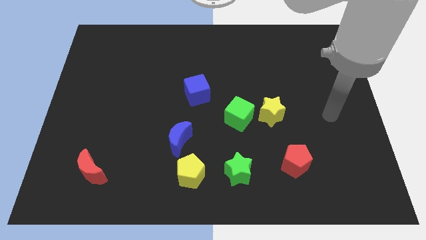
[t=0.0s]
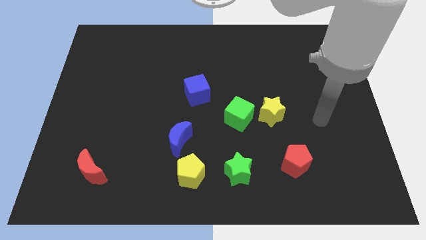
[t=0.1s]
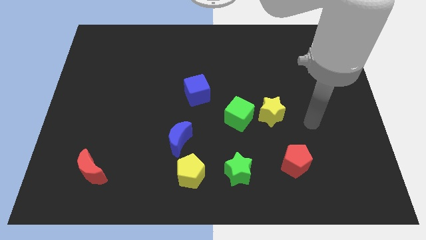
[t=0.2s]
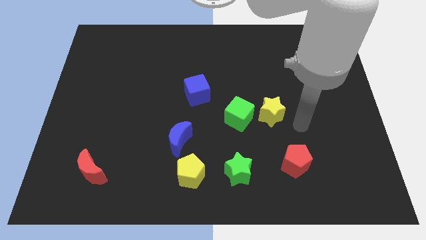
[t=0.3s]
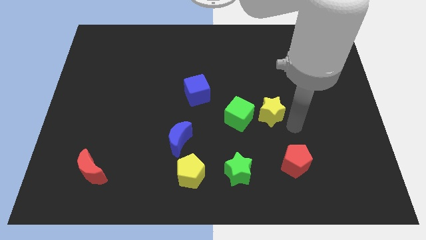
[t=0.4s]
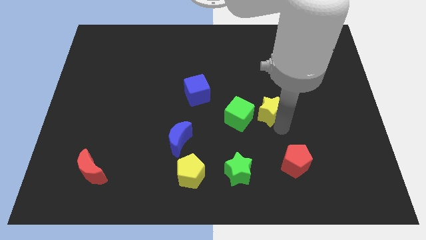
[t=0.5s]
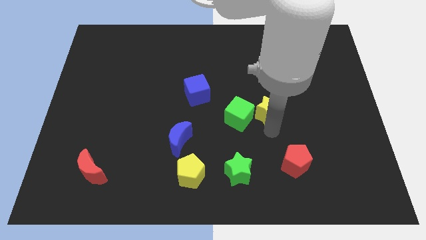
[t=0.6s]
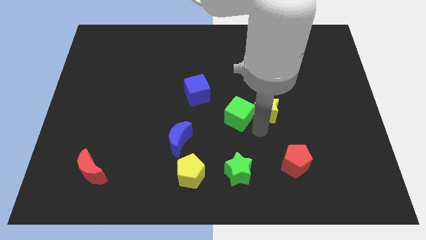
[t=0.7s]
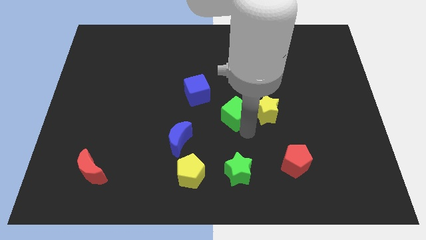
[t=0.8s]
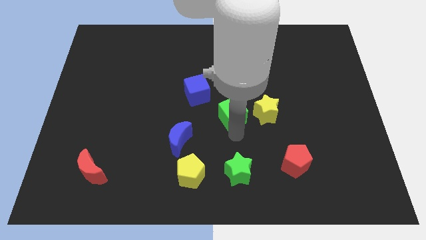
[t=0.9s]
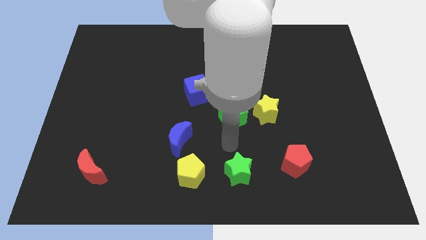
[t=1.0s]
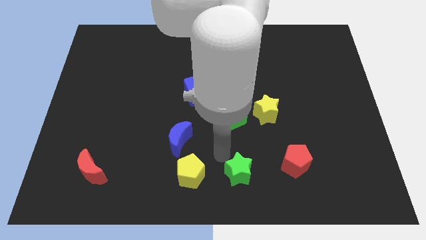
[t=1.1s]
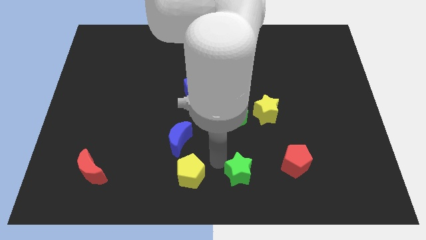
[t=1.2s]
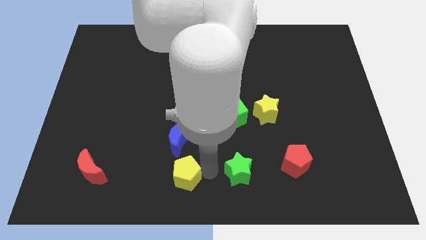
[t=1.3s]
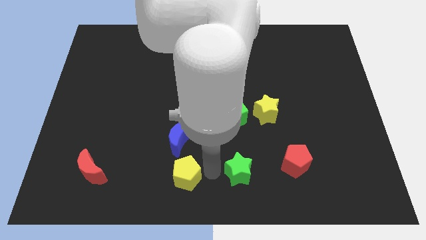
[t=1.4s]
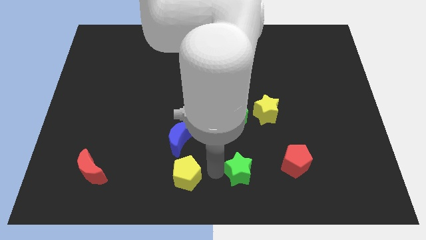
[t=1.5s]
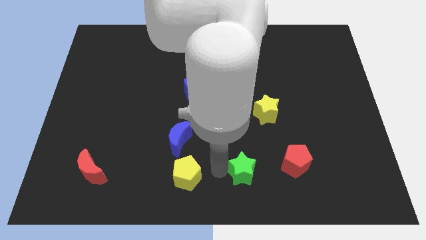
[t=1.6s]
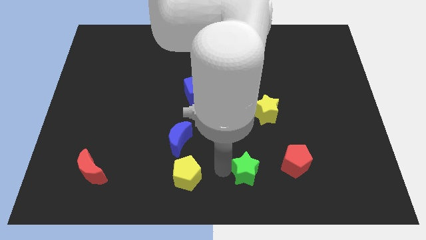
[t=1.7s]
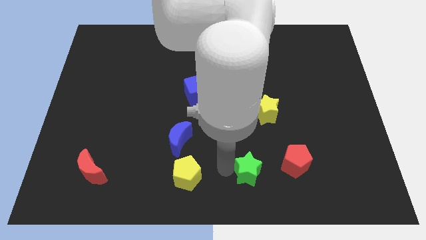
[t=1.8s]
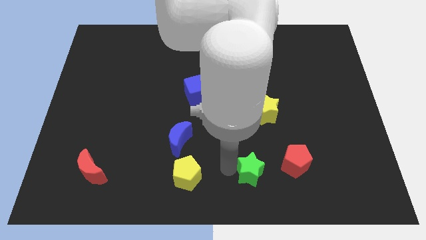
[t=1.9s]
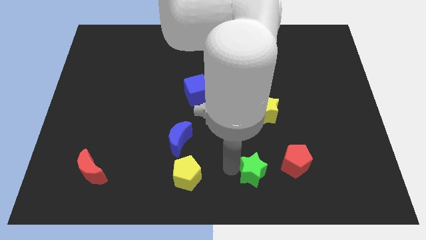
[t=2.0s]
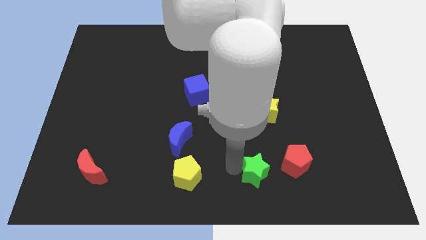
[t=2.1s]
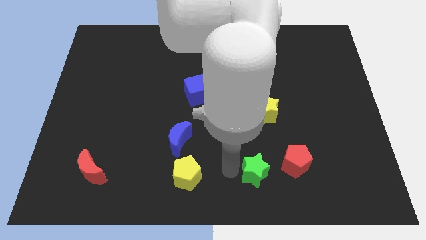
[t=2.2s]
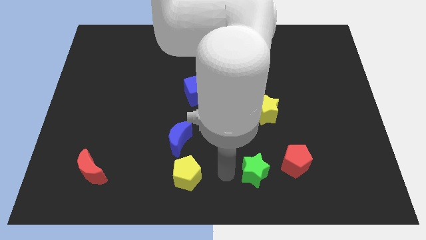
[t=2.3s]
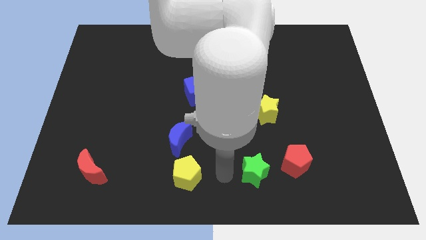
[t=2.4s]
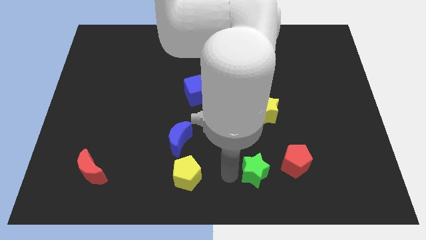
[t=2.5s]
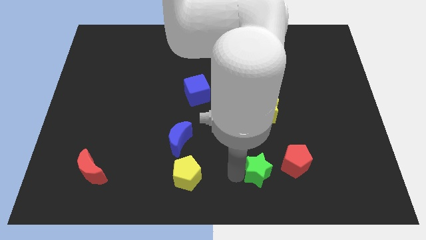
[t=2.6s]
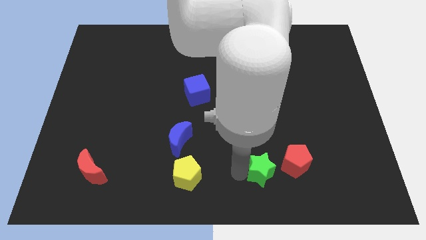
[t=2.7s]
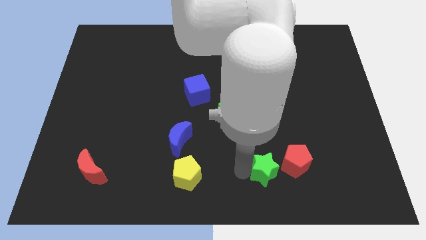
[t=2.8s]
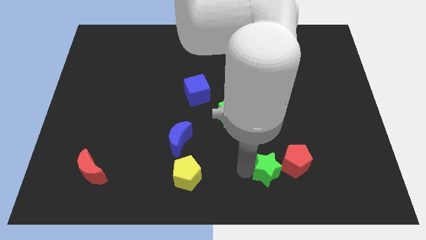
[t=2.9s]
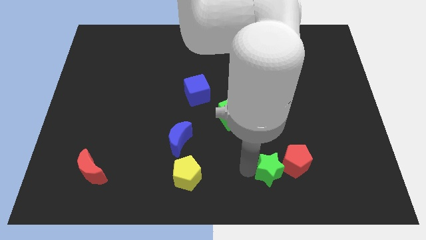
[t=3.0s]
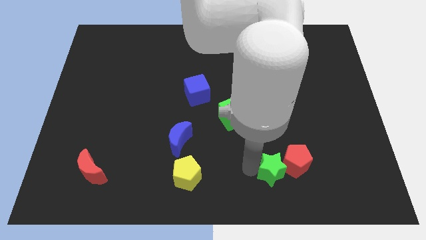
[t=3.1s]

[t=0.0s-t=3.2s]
move the green star a little right

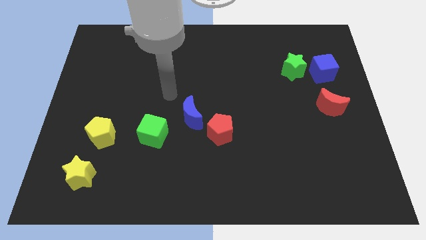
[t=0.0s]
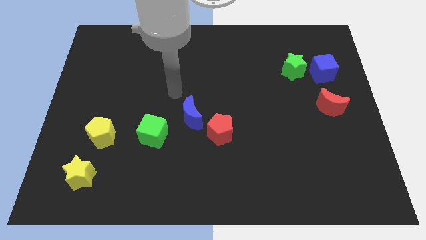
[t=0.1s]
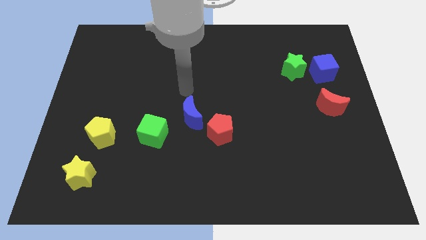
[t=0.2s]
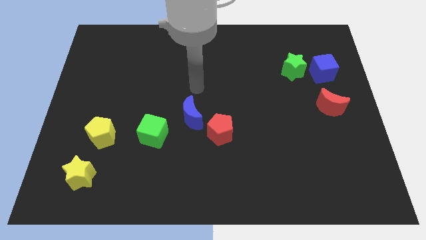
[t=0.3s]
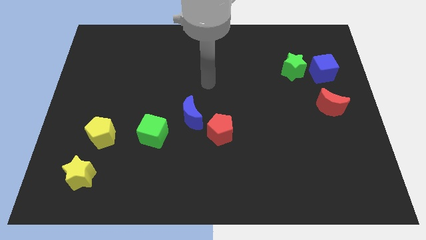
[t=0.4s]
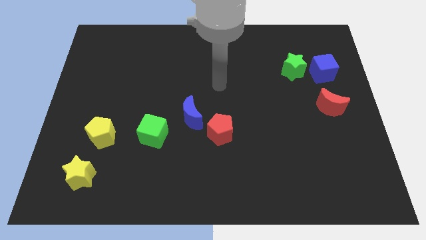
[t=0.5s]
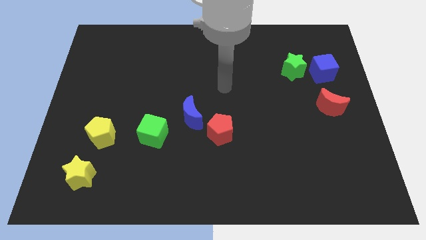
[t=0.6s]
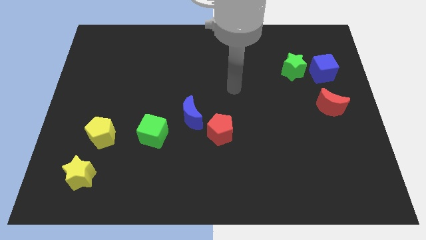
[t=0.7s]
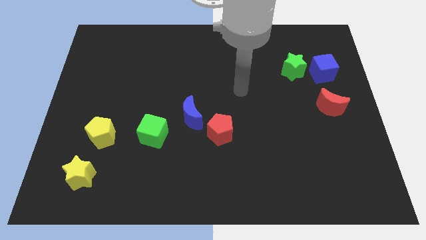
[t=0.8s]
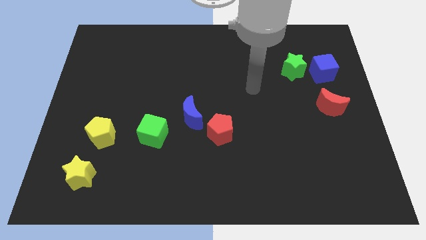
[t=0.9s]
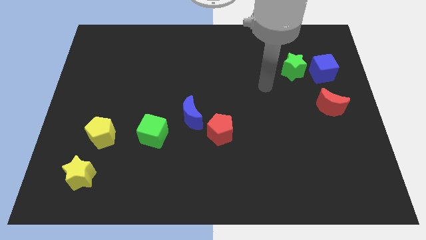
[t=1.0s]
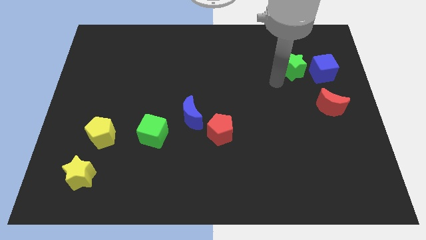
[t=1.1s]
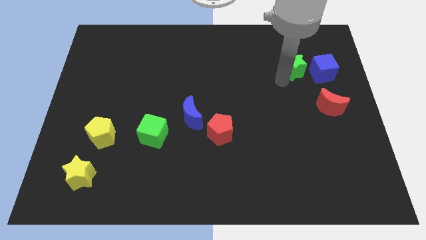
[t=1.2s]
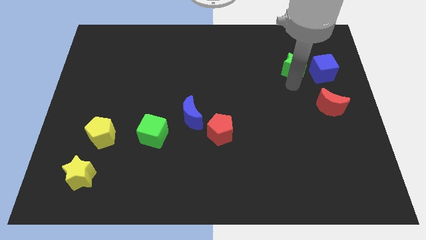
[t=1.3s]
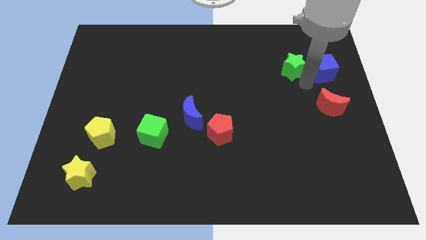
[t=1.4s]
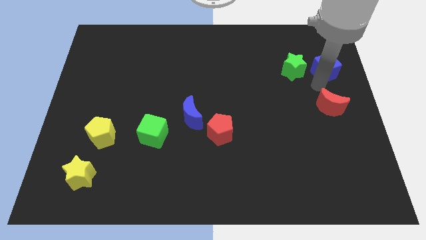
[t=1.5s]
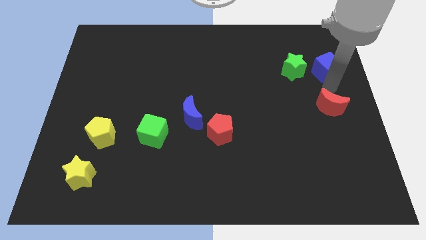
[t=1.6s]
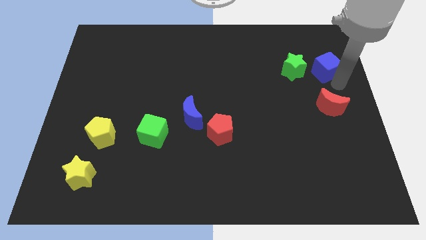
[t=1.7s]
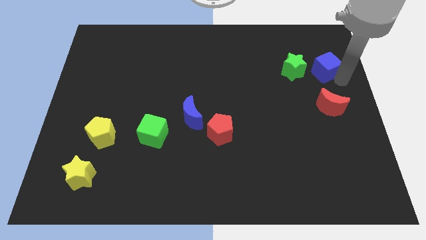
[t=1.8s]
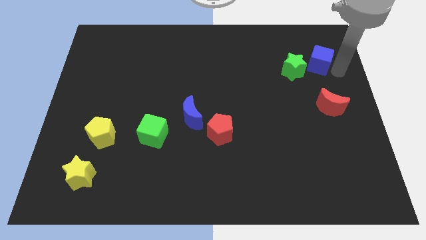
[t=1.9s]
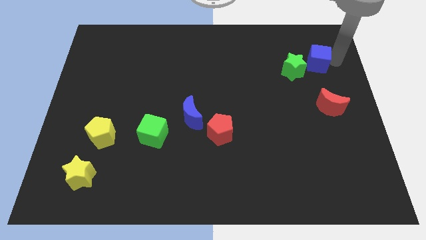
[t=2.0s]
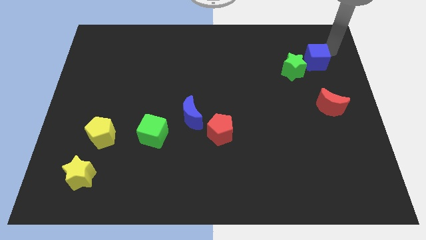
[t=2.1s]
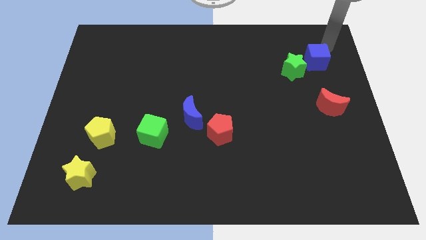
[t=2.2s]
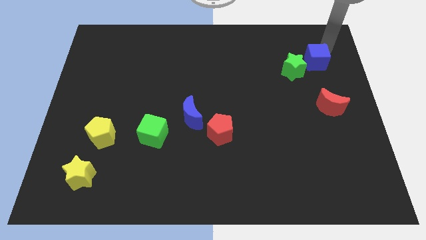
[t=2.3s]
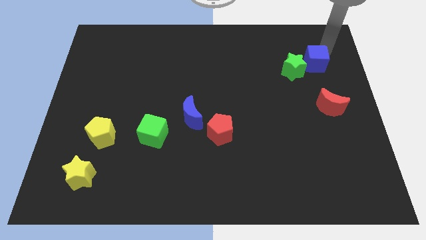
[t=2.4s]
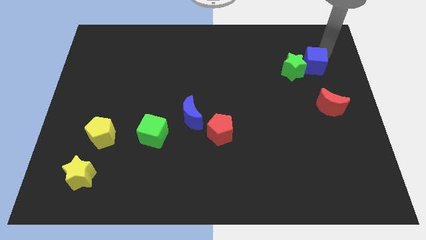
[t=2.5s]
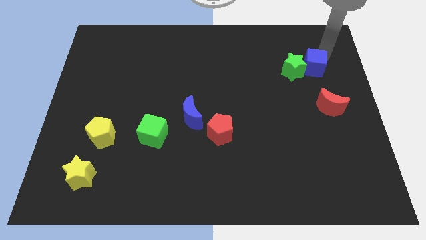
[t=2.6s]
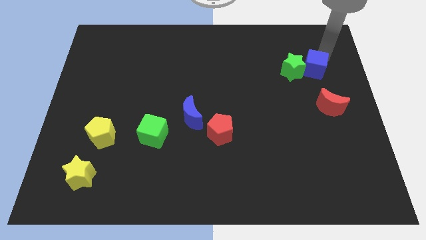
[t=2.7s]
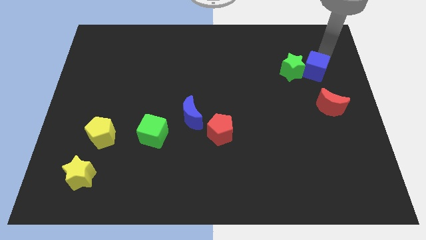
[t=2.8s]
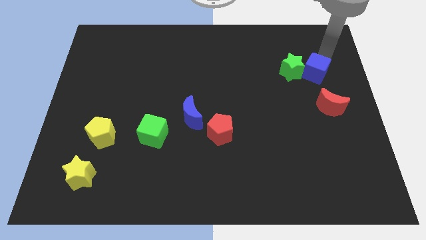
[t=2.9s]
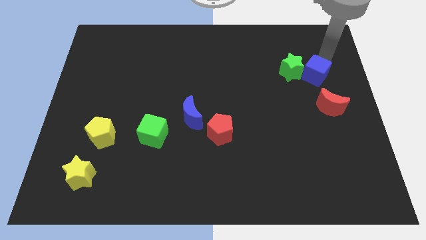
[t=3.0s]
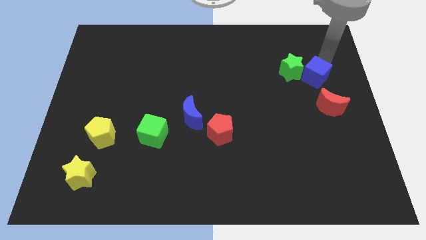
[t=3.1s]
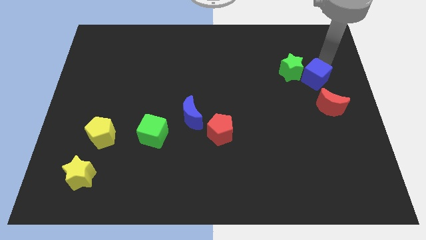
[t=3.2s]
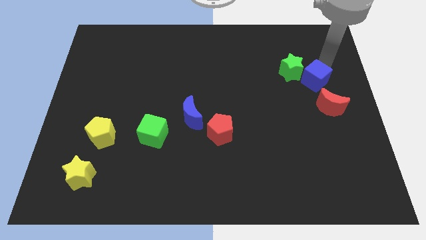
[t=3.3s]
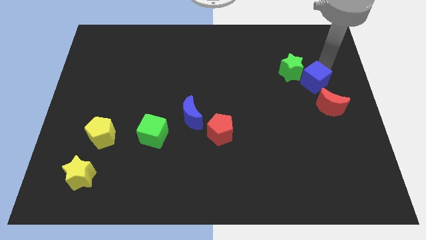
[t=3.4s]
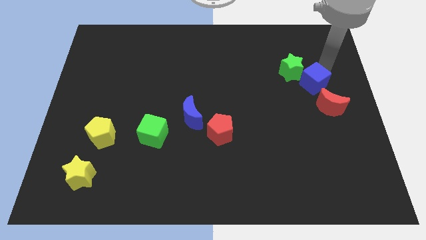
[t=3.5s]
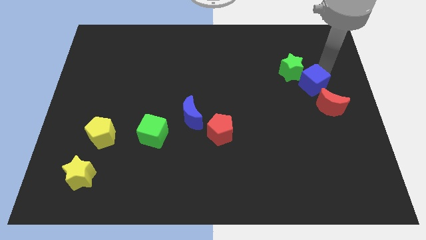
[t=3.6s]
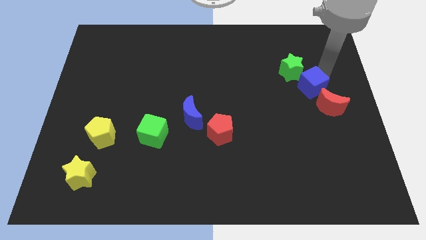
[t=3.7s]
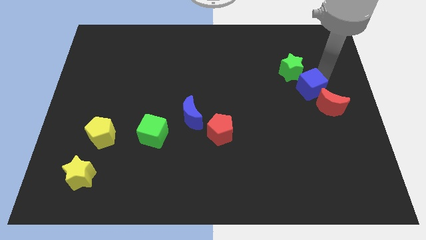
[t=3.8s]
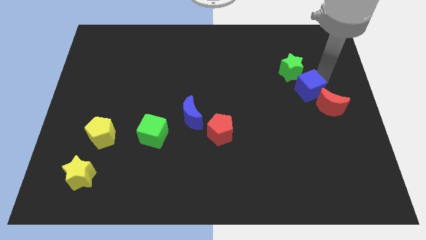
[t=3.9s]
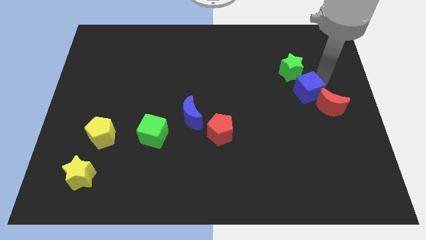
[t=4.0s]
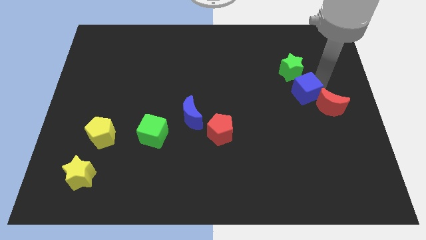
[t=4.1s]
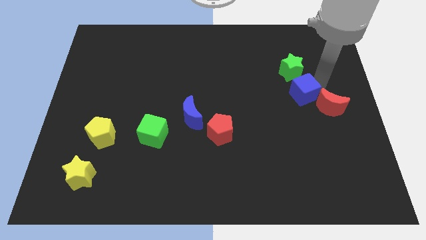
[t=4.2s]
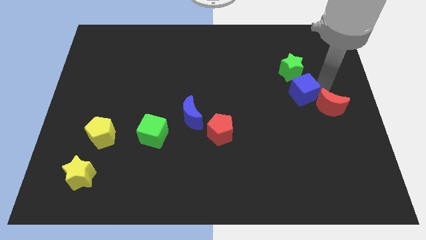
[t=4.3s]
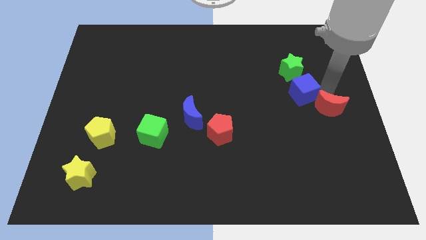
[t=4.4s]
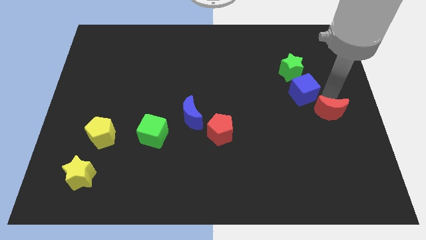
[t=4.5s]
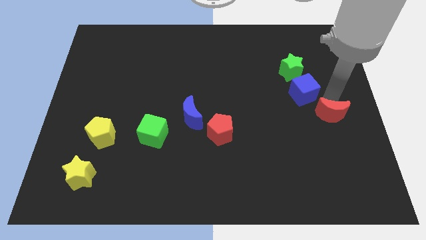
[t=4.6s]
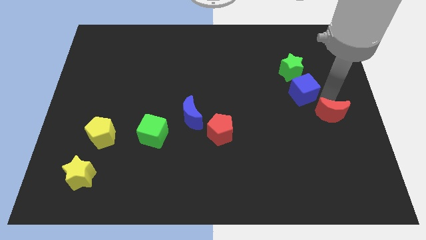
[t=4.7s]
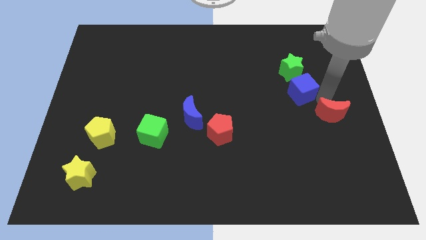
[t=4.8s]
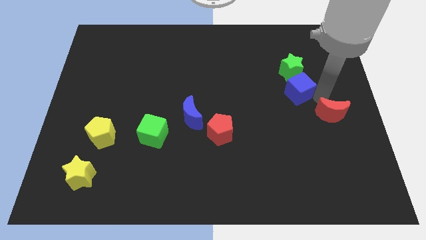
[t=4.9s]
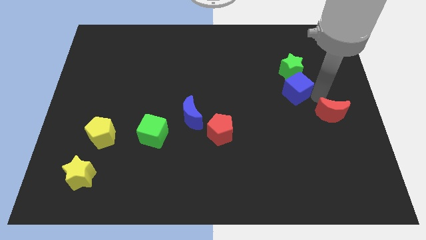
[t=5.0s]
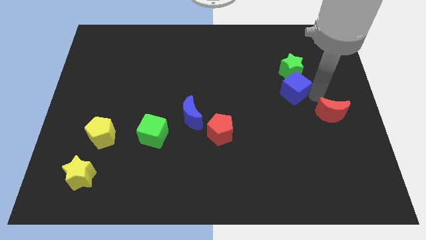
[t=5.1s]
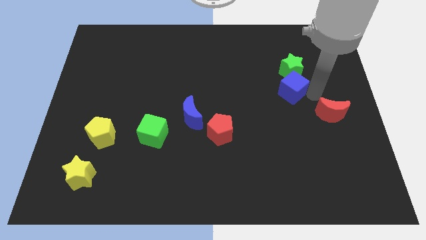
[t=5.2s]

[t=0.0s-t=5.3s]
push the blue cube left slightly
